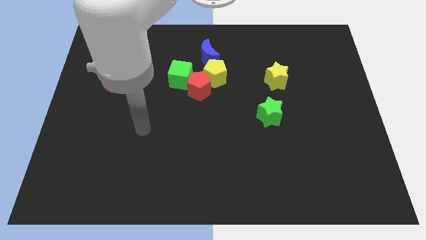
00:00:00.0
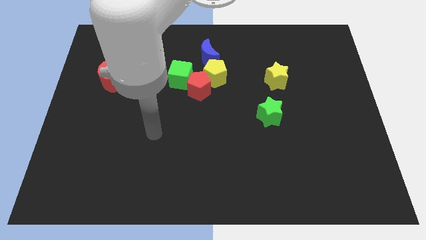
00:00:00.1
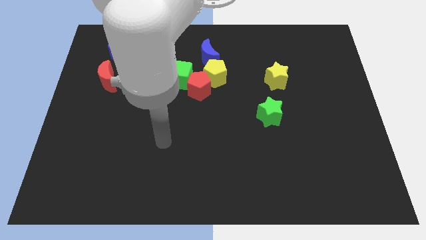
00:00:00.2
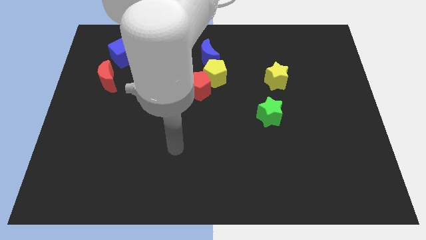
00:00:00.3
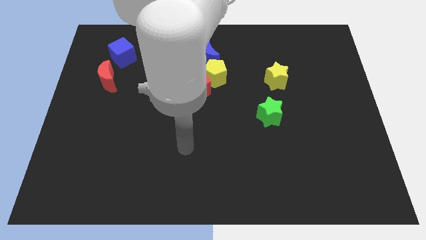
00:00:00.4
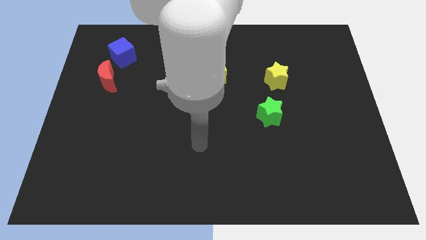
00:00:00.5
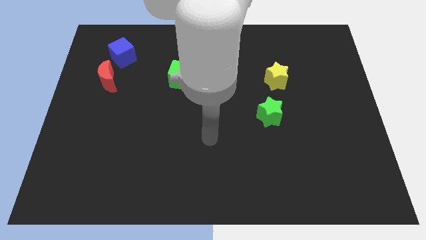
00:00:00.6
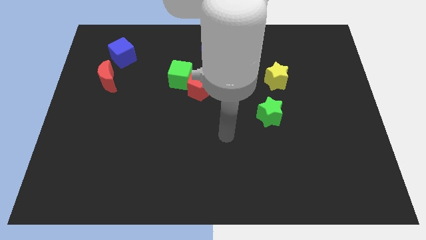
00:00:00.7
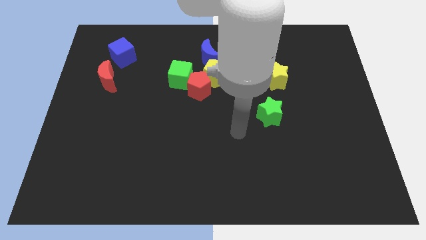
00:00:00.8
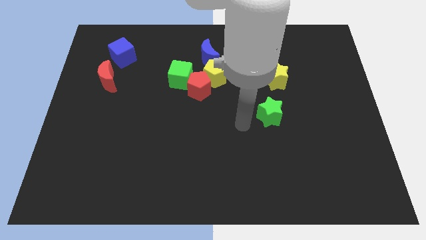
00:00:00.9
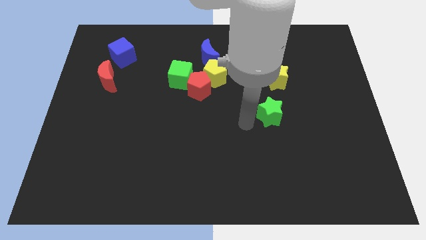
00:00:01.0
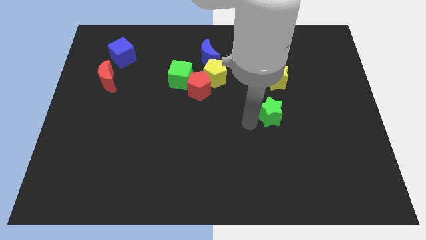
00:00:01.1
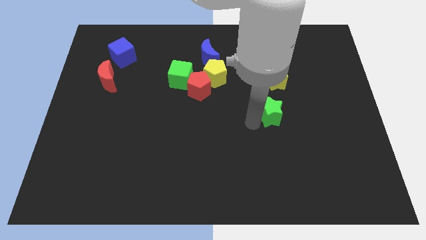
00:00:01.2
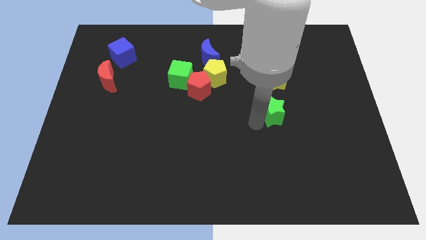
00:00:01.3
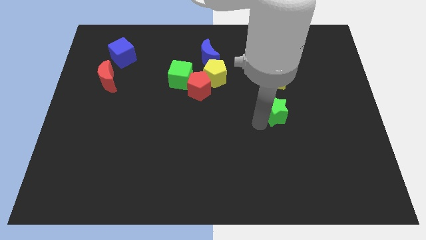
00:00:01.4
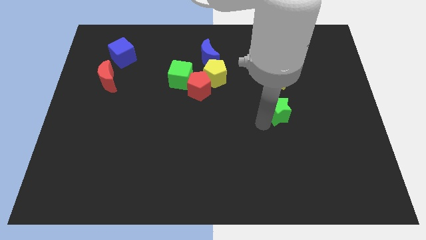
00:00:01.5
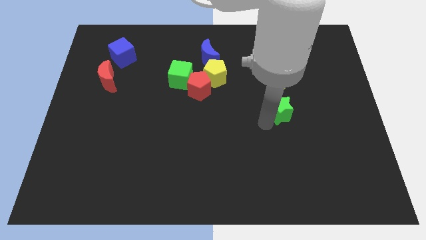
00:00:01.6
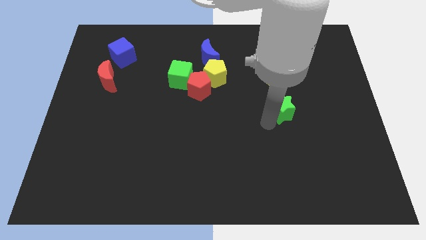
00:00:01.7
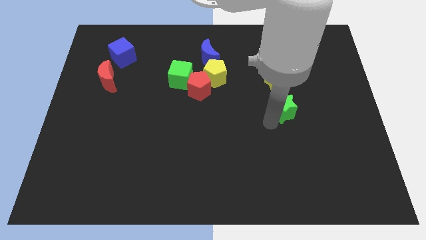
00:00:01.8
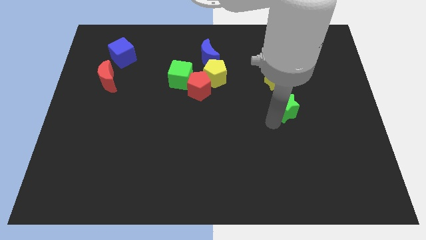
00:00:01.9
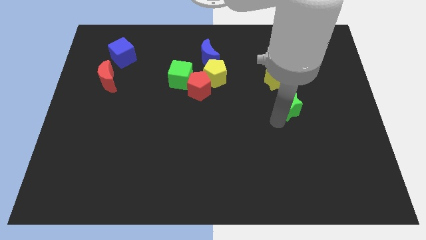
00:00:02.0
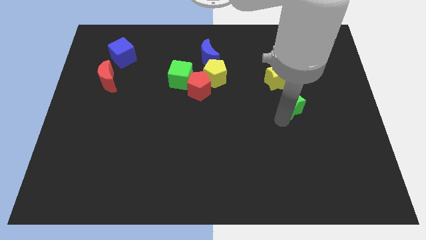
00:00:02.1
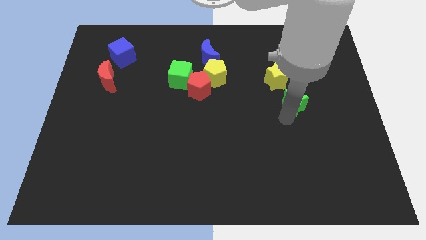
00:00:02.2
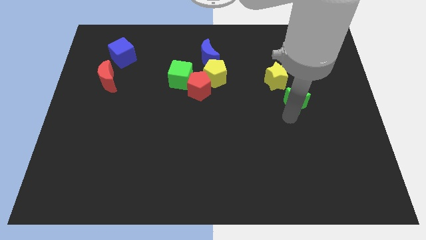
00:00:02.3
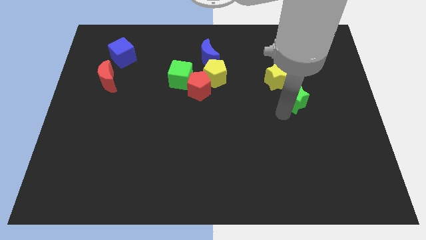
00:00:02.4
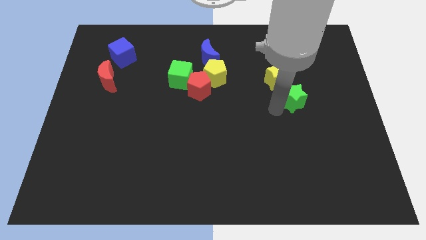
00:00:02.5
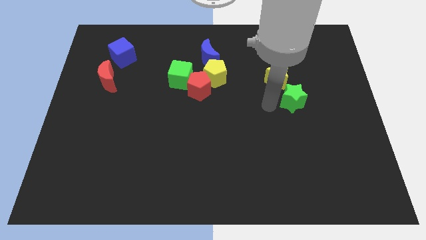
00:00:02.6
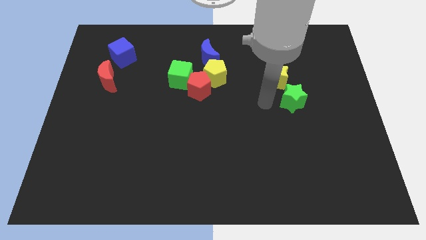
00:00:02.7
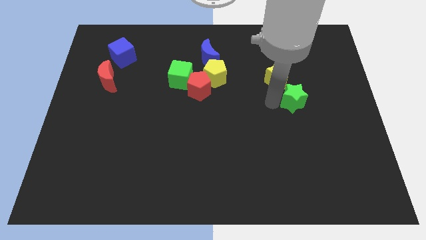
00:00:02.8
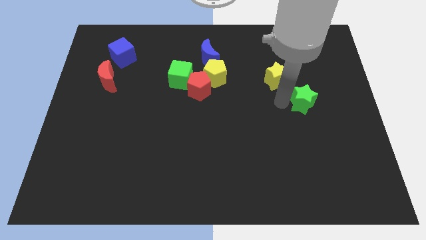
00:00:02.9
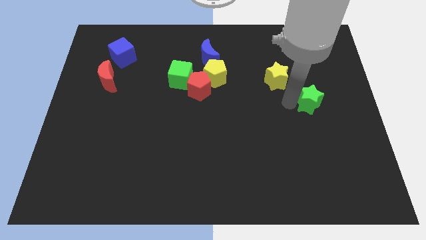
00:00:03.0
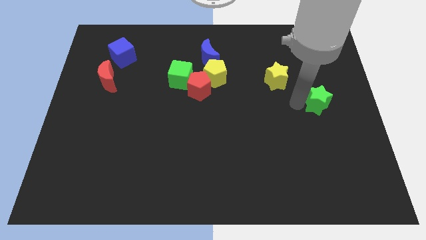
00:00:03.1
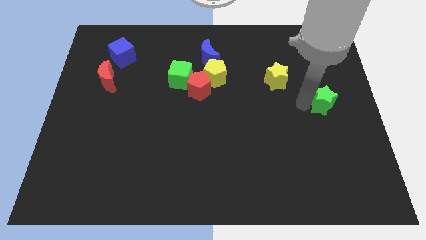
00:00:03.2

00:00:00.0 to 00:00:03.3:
move the green star to the center right

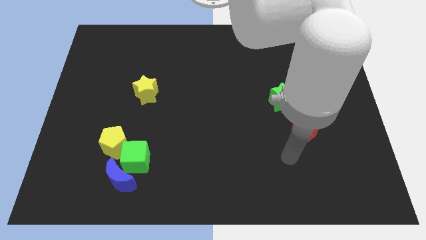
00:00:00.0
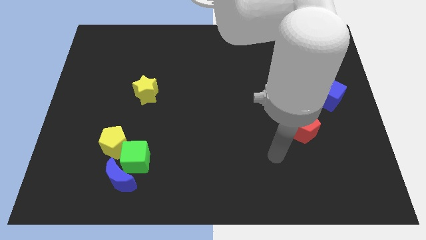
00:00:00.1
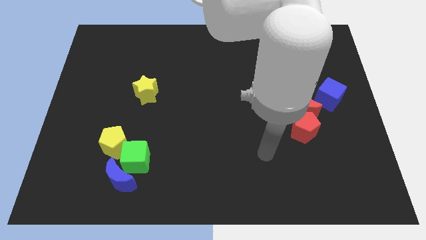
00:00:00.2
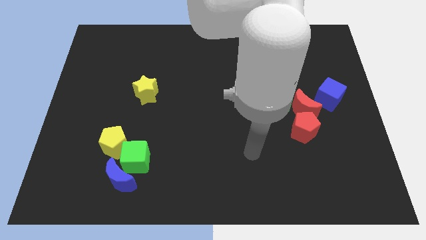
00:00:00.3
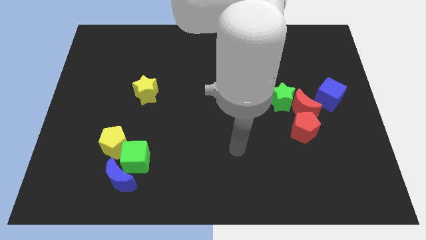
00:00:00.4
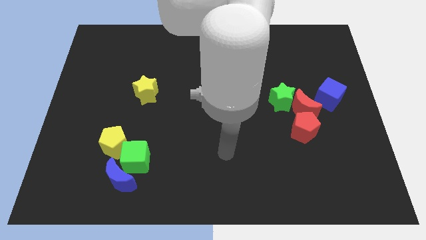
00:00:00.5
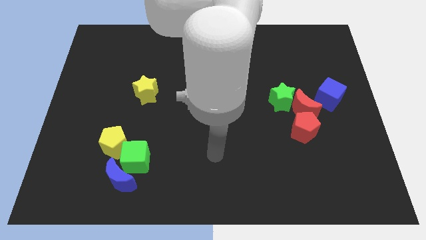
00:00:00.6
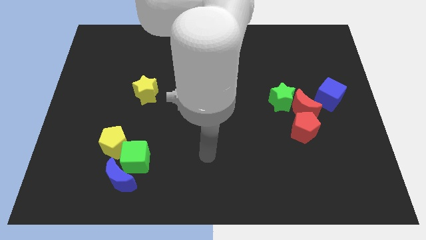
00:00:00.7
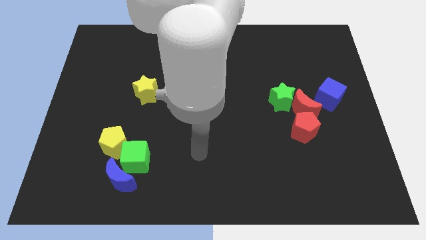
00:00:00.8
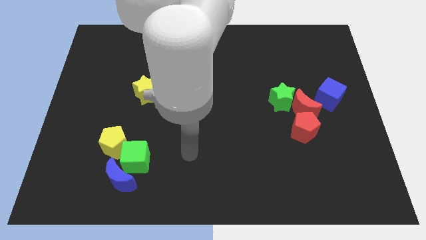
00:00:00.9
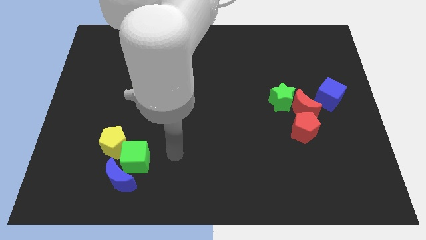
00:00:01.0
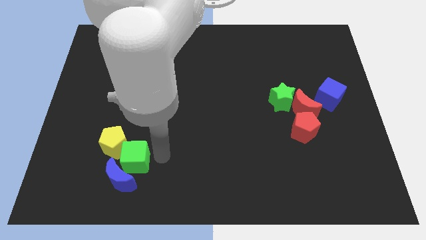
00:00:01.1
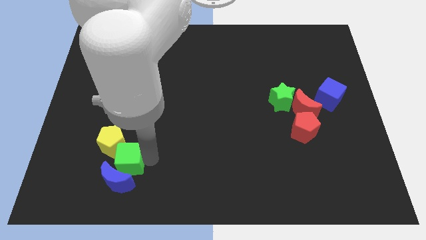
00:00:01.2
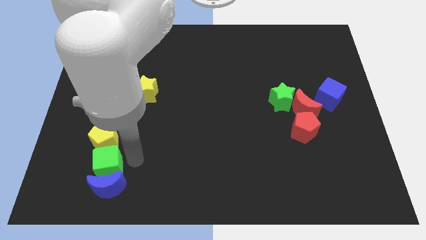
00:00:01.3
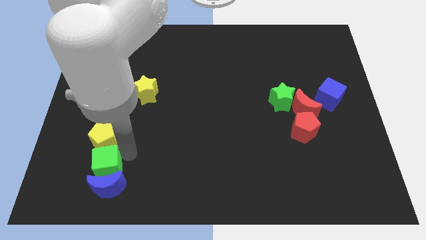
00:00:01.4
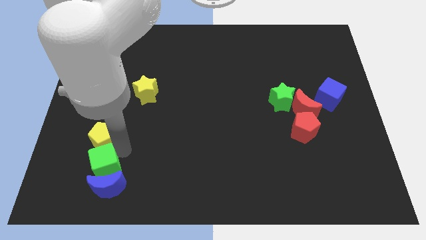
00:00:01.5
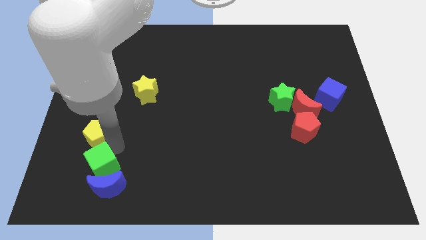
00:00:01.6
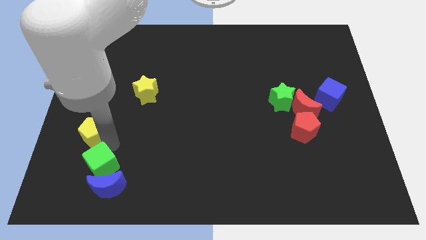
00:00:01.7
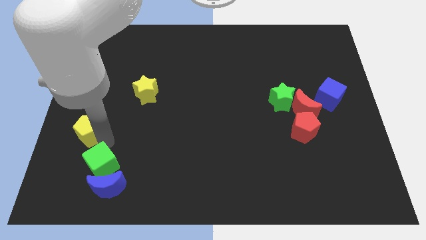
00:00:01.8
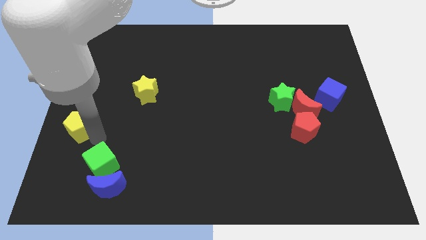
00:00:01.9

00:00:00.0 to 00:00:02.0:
move the yellow pentagon to the left side of the board

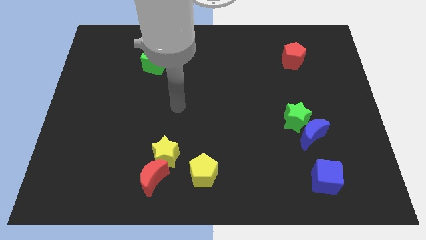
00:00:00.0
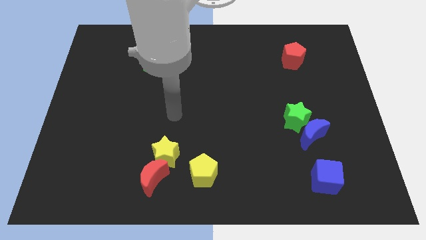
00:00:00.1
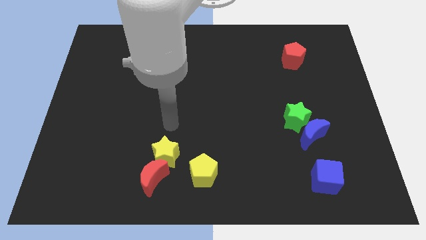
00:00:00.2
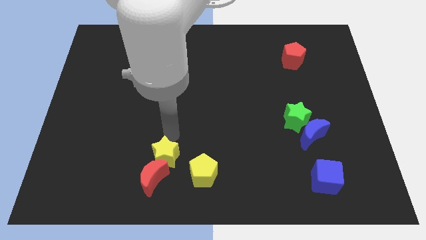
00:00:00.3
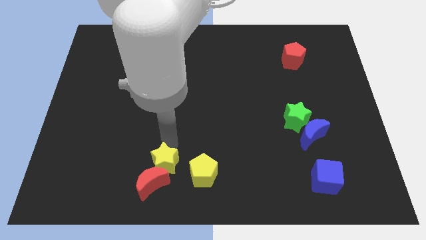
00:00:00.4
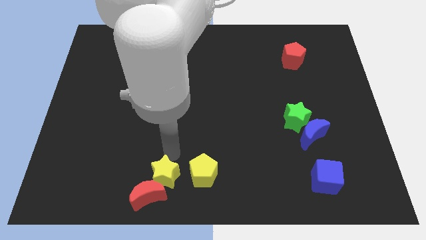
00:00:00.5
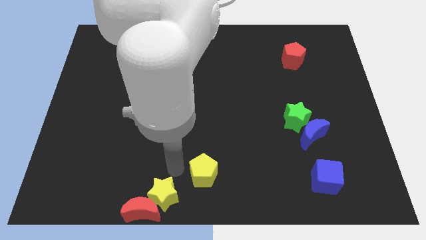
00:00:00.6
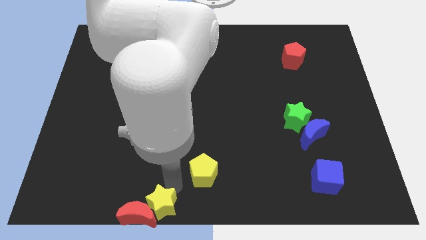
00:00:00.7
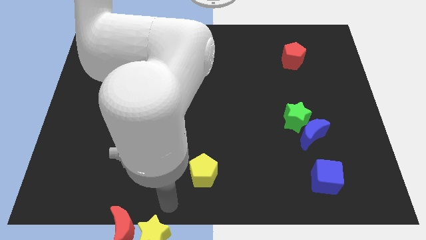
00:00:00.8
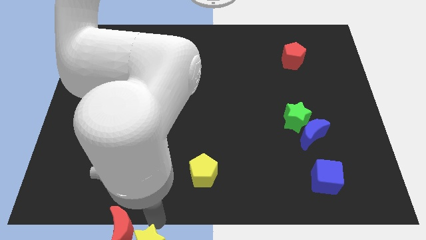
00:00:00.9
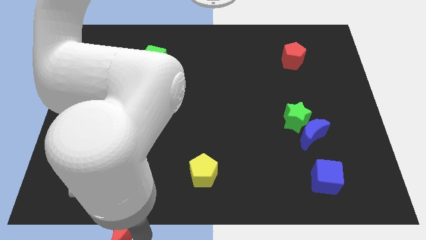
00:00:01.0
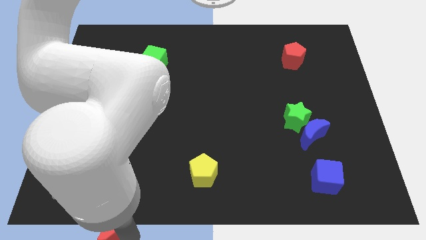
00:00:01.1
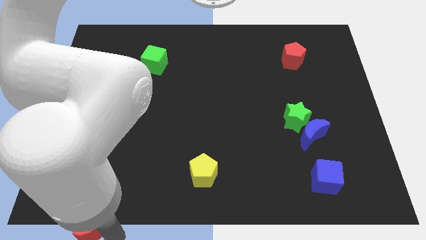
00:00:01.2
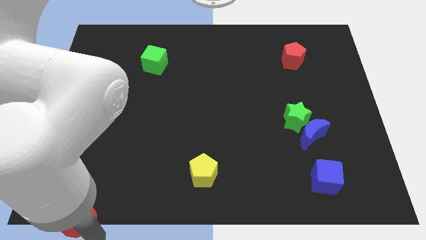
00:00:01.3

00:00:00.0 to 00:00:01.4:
push the red moon to the bottom left

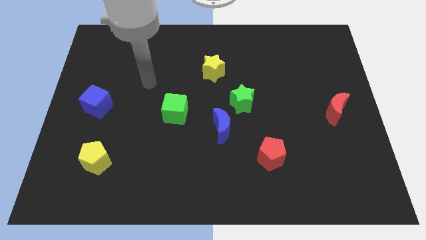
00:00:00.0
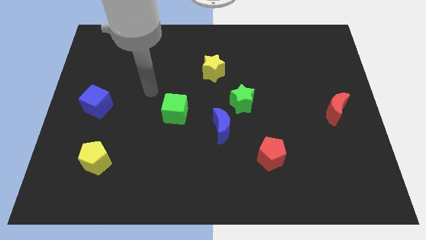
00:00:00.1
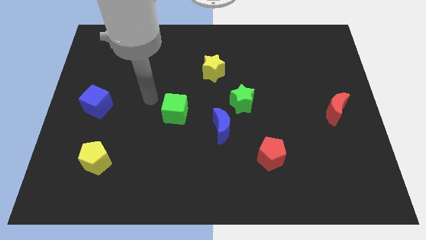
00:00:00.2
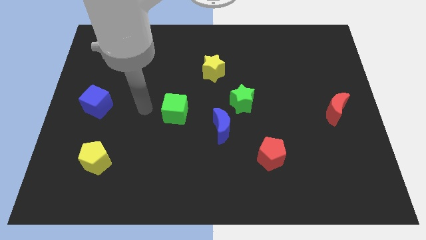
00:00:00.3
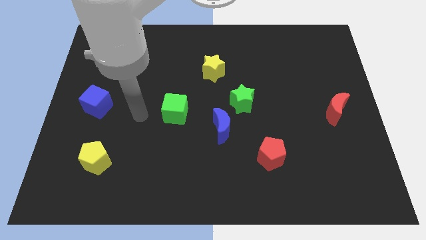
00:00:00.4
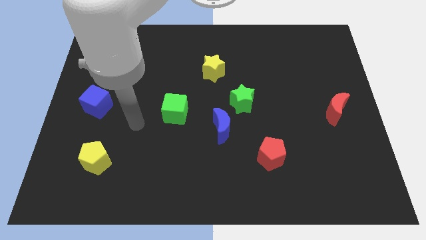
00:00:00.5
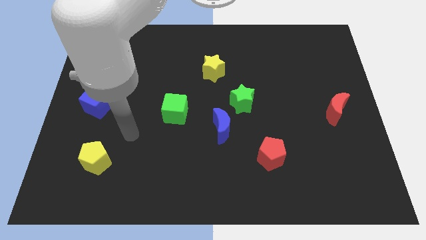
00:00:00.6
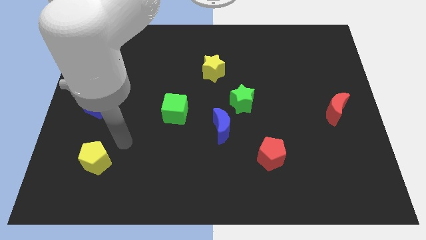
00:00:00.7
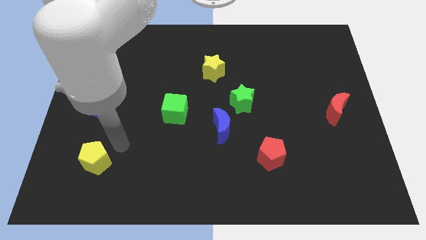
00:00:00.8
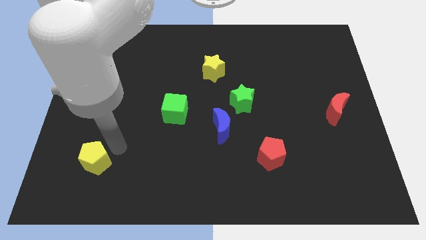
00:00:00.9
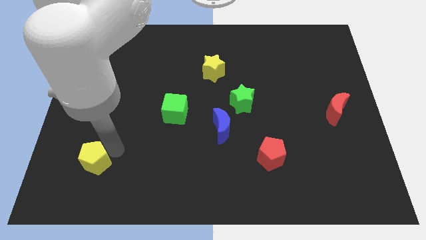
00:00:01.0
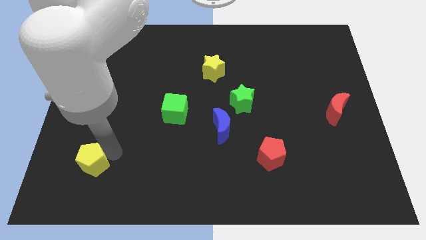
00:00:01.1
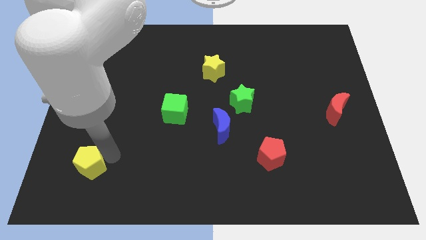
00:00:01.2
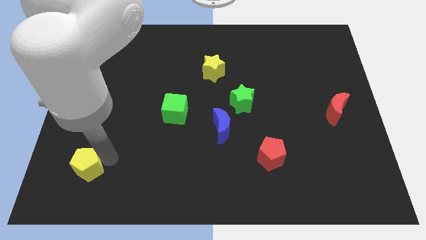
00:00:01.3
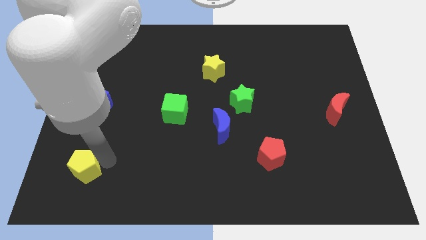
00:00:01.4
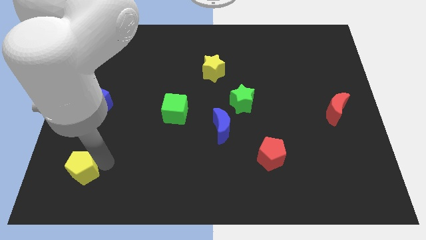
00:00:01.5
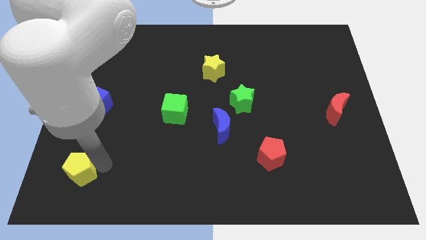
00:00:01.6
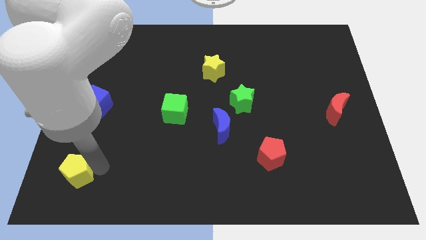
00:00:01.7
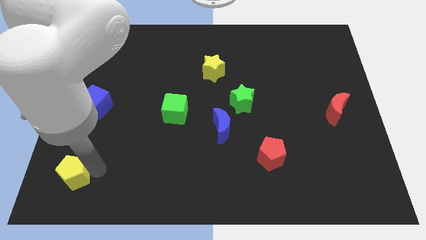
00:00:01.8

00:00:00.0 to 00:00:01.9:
push the yellow pentagon to the lower left corner
